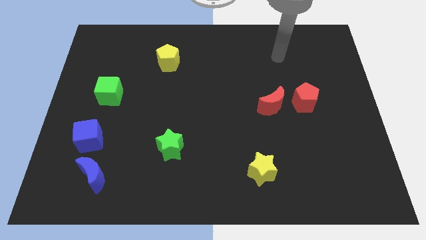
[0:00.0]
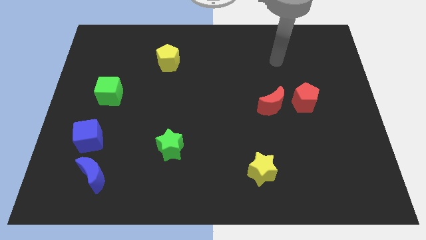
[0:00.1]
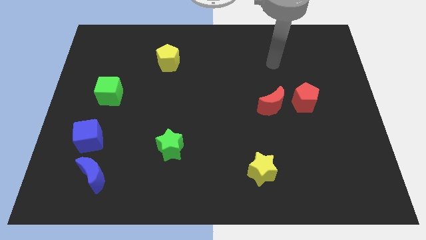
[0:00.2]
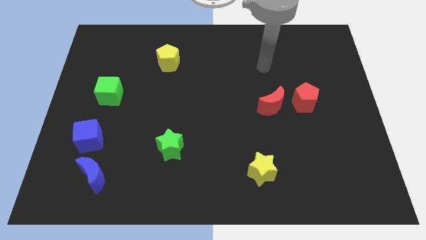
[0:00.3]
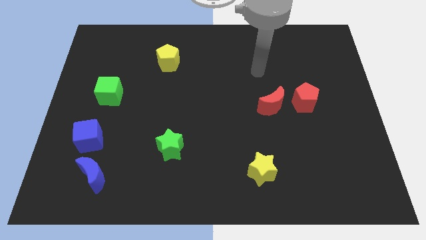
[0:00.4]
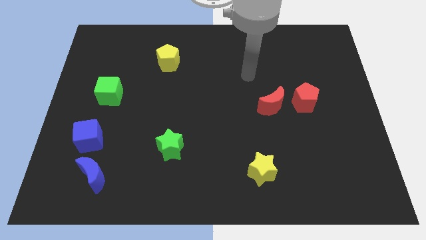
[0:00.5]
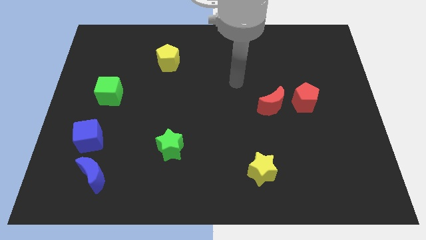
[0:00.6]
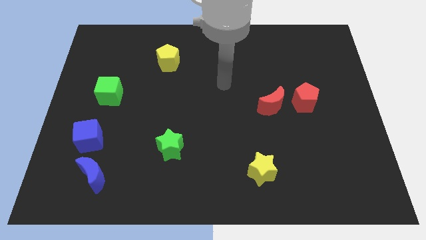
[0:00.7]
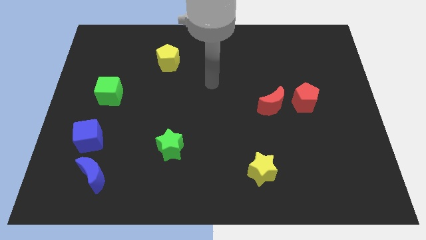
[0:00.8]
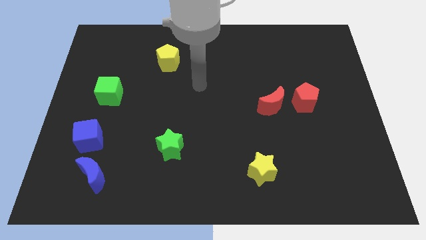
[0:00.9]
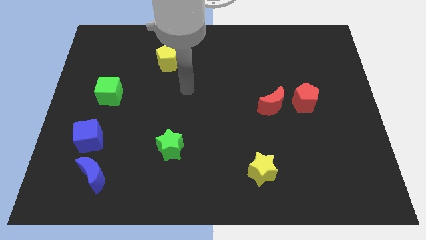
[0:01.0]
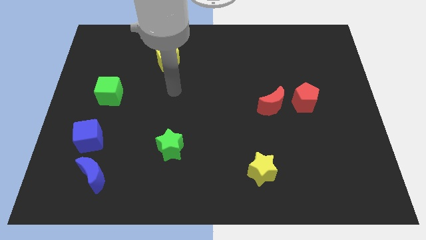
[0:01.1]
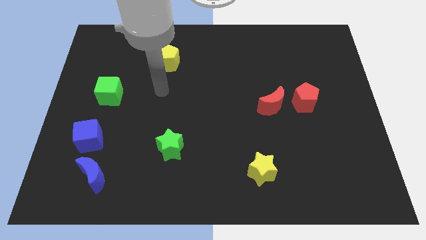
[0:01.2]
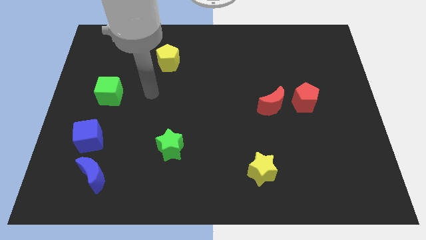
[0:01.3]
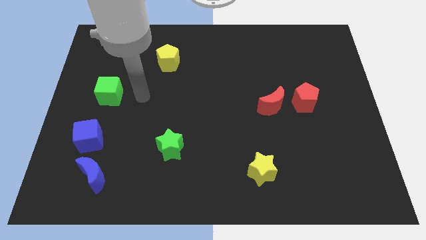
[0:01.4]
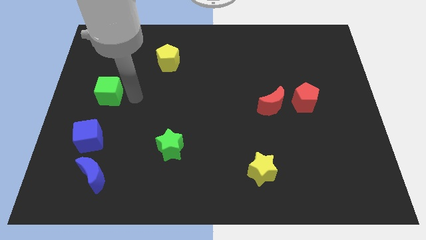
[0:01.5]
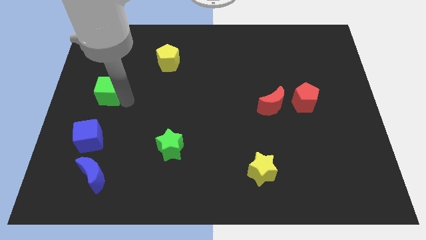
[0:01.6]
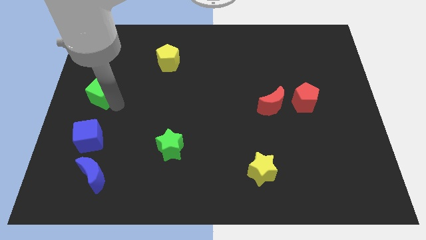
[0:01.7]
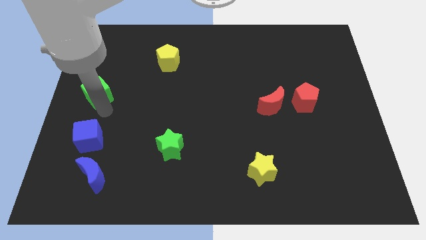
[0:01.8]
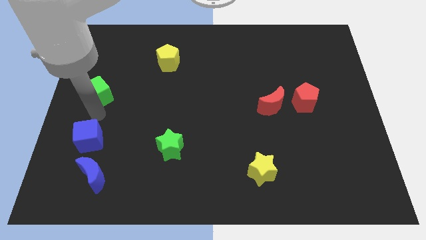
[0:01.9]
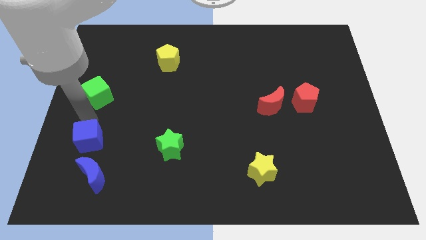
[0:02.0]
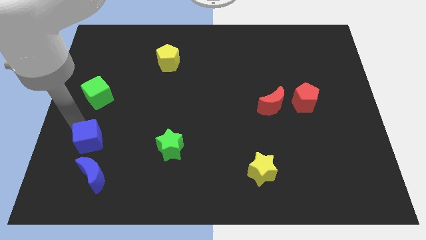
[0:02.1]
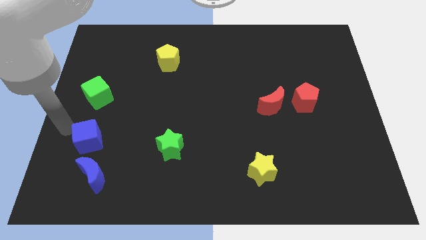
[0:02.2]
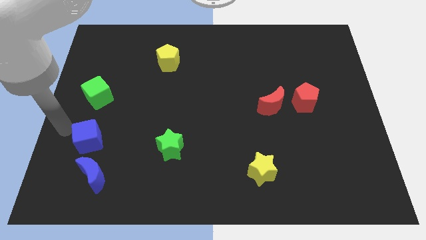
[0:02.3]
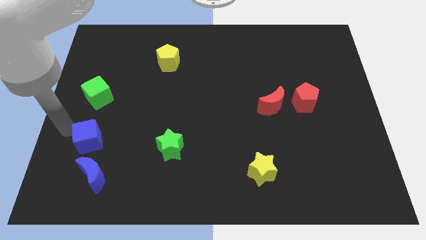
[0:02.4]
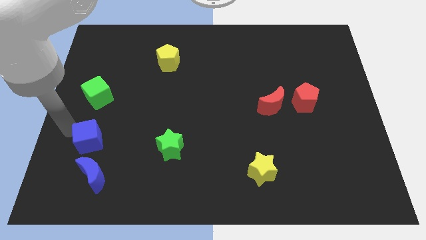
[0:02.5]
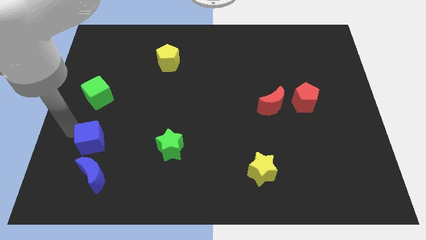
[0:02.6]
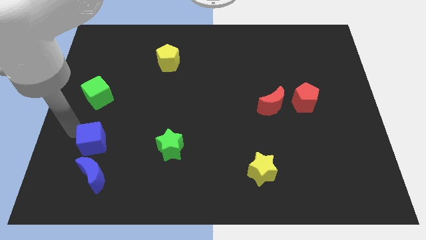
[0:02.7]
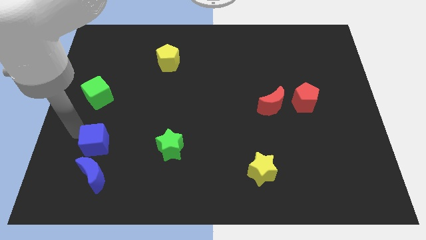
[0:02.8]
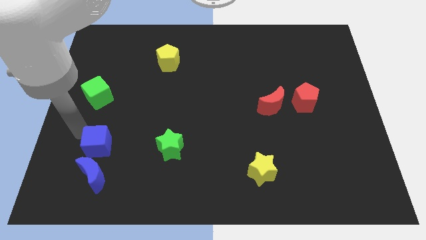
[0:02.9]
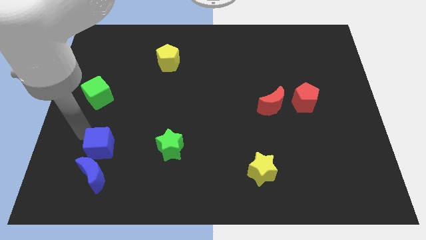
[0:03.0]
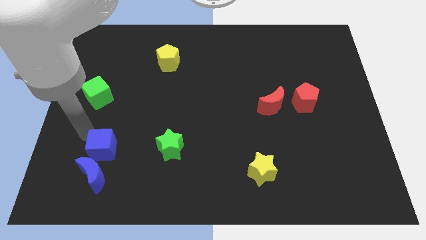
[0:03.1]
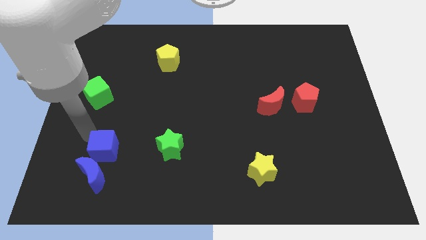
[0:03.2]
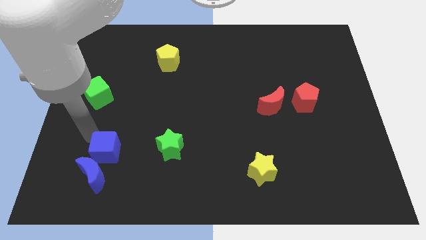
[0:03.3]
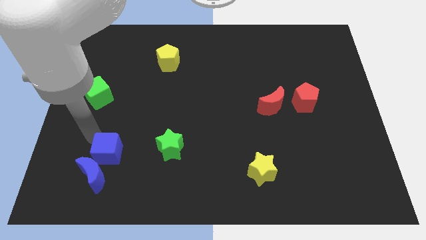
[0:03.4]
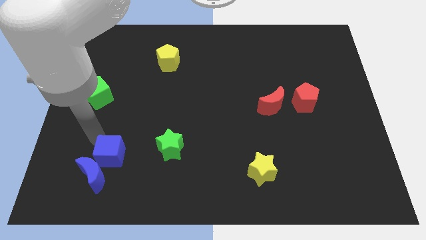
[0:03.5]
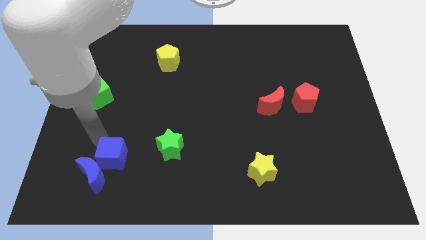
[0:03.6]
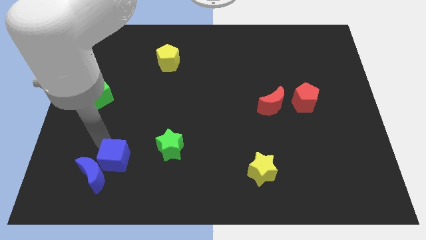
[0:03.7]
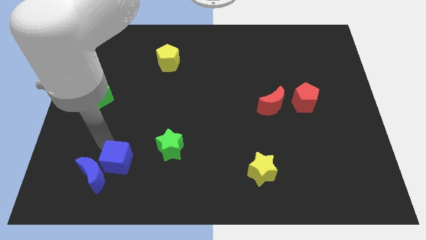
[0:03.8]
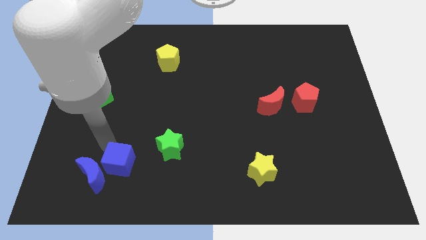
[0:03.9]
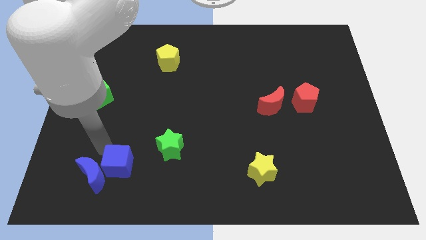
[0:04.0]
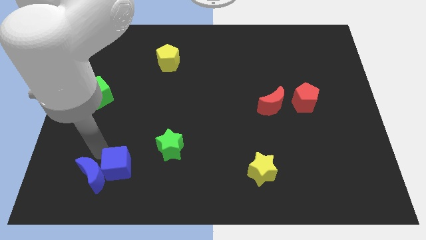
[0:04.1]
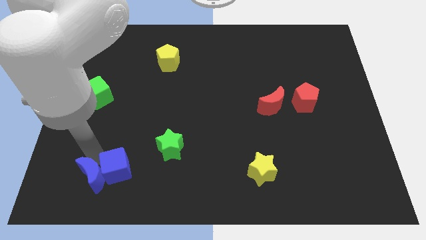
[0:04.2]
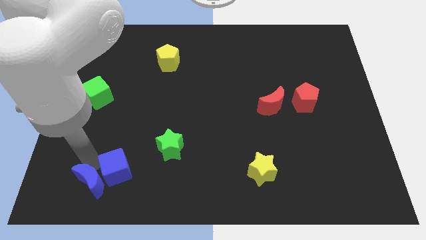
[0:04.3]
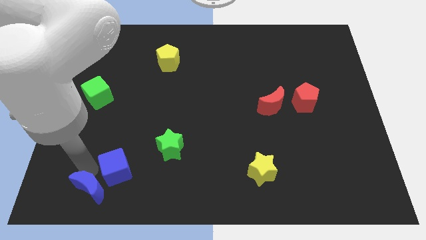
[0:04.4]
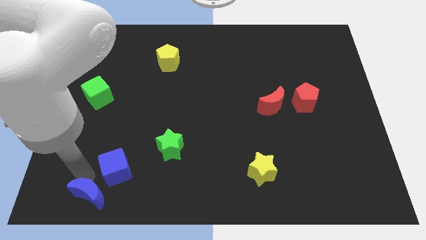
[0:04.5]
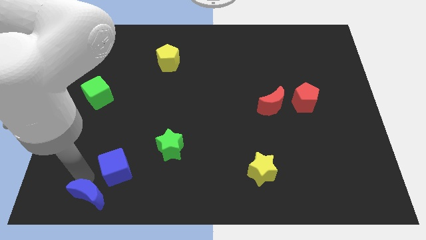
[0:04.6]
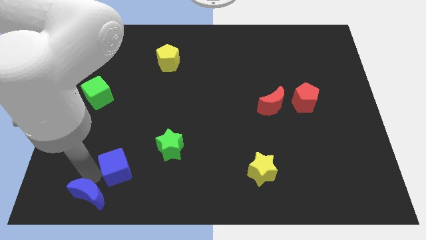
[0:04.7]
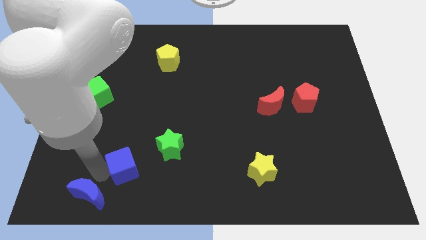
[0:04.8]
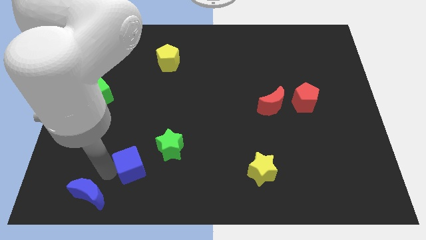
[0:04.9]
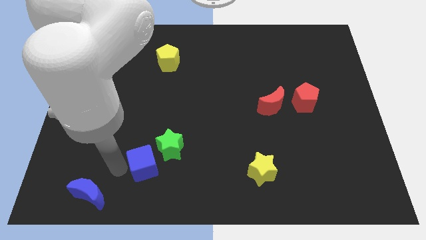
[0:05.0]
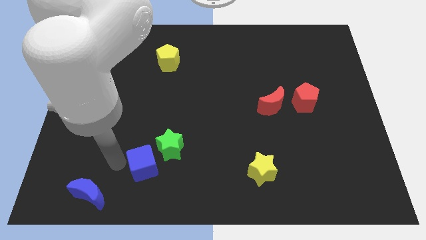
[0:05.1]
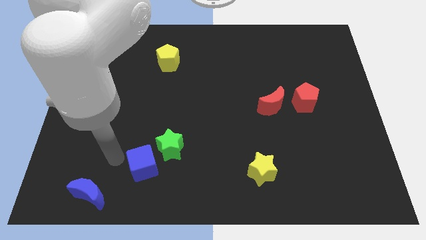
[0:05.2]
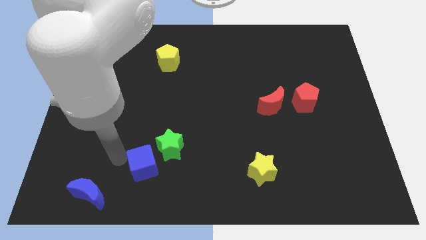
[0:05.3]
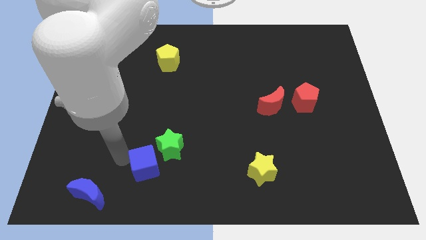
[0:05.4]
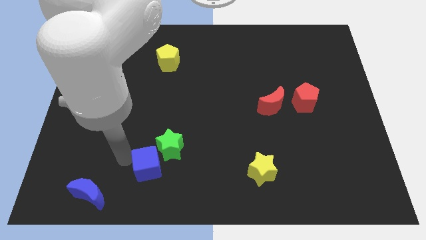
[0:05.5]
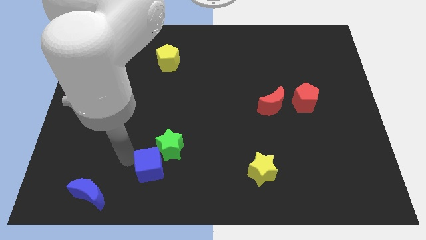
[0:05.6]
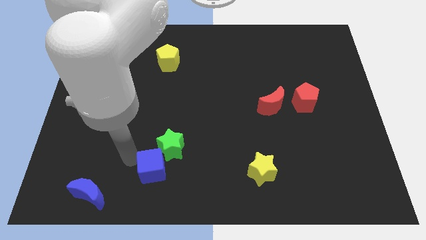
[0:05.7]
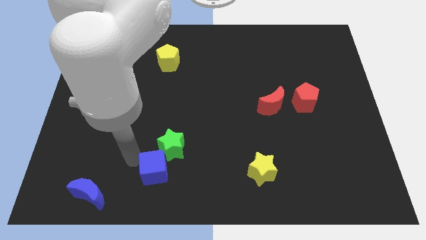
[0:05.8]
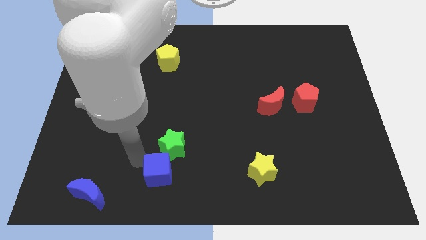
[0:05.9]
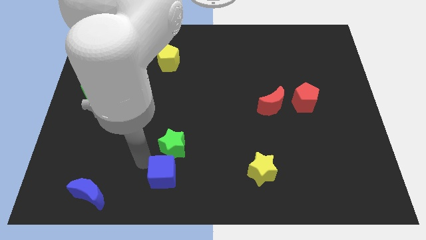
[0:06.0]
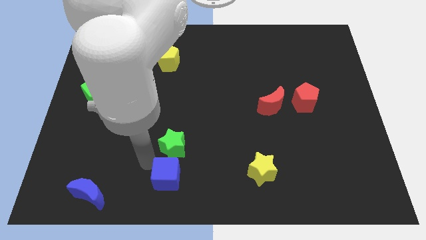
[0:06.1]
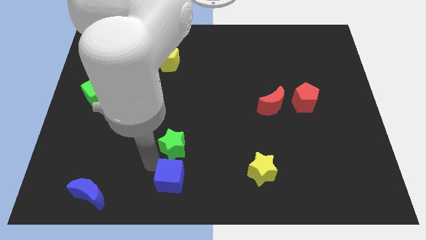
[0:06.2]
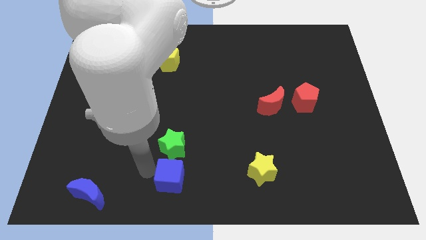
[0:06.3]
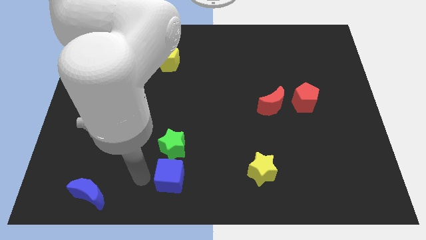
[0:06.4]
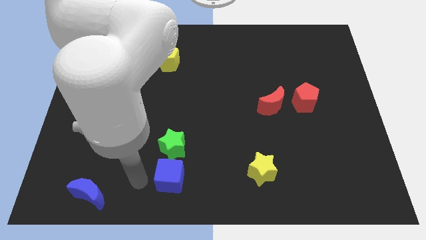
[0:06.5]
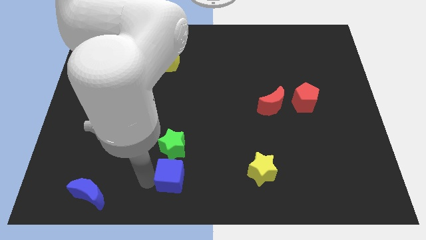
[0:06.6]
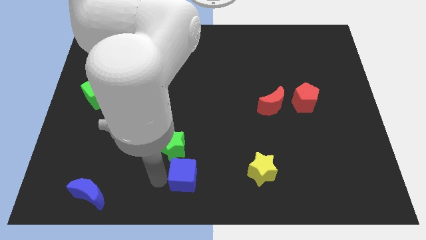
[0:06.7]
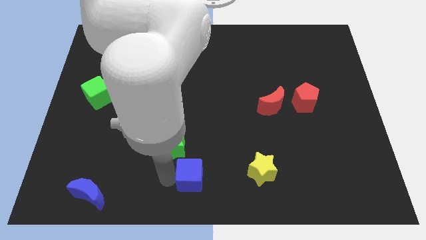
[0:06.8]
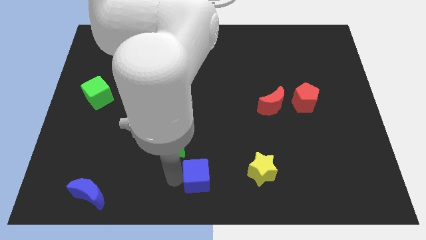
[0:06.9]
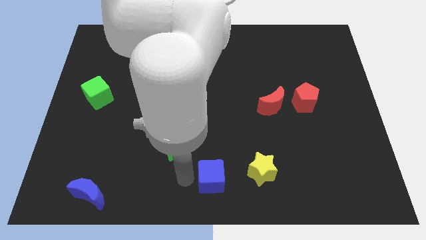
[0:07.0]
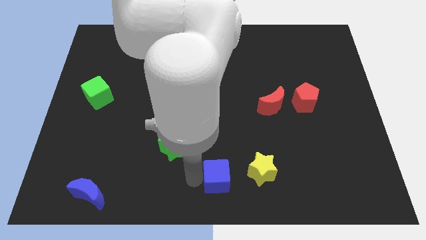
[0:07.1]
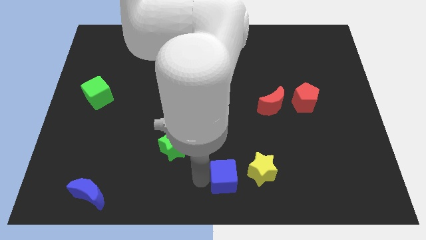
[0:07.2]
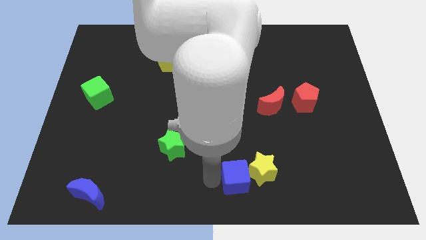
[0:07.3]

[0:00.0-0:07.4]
move the blue cube towards the yellow star
